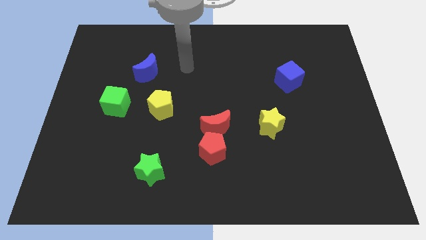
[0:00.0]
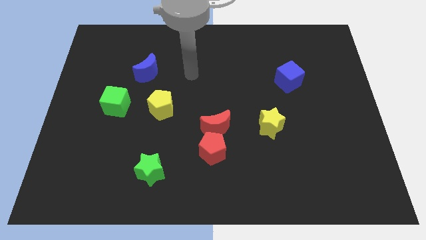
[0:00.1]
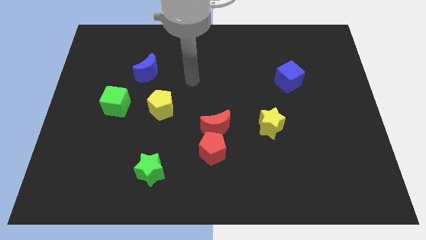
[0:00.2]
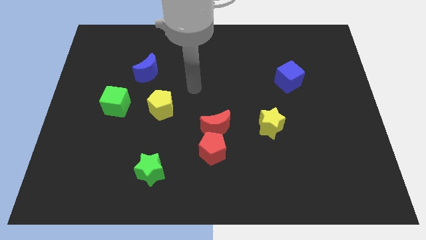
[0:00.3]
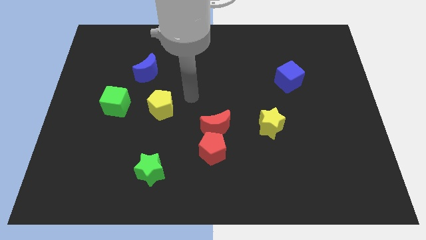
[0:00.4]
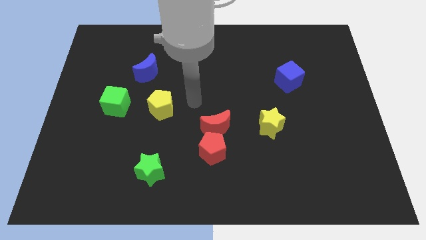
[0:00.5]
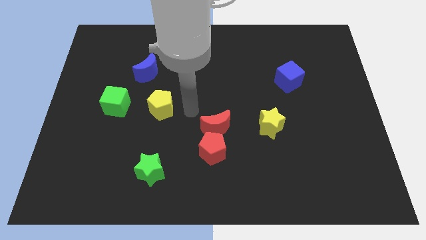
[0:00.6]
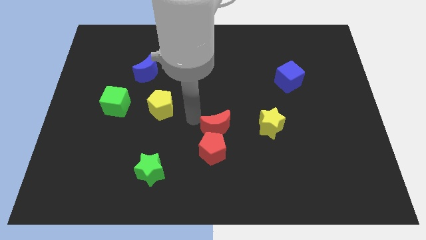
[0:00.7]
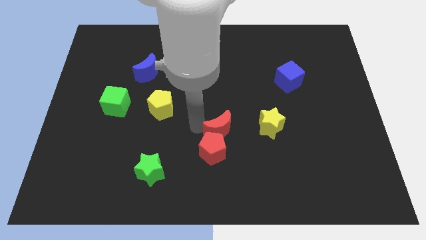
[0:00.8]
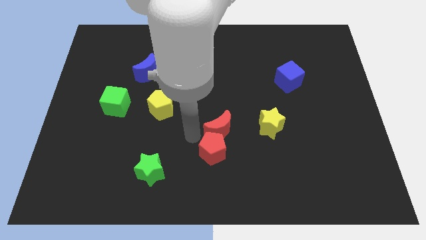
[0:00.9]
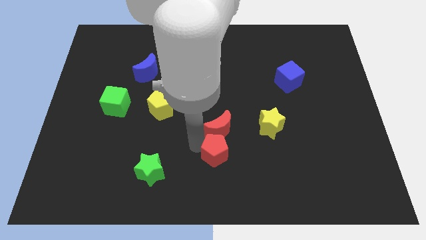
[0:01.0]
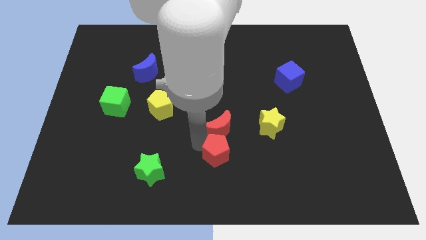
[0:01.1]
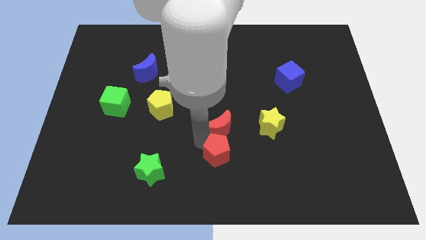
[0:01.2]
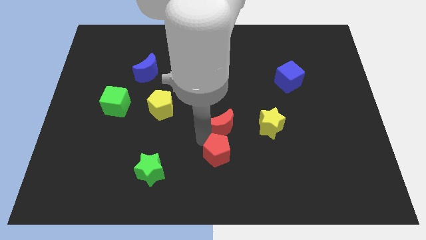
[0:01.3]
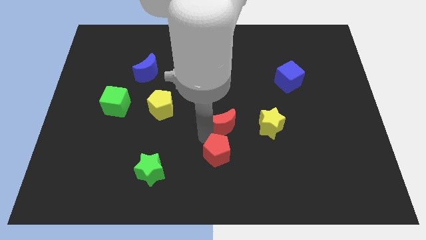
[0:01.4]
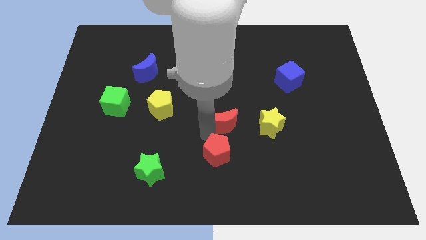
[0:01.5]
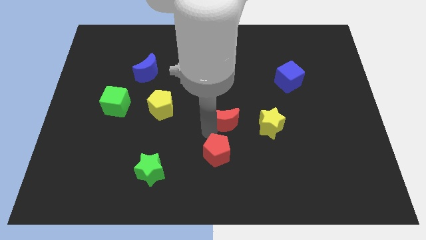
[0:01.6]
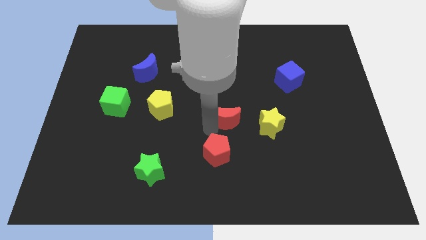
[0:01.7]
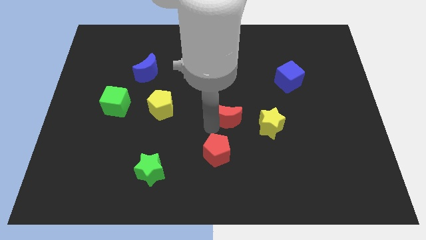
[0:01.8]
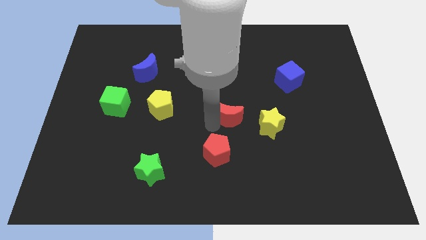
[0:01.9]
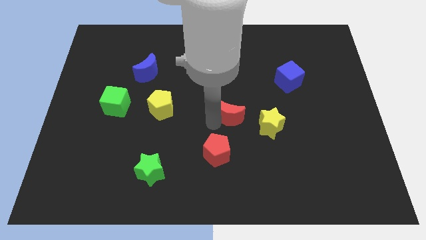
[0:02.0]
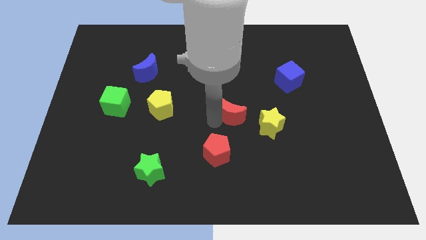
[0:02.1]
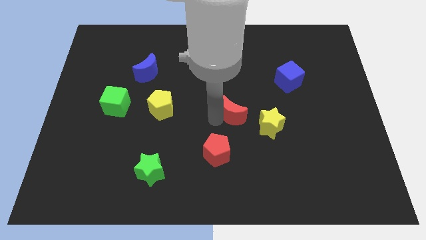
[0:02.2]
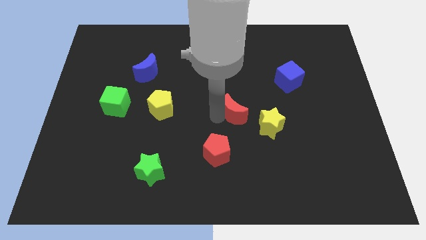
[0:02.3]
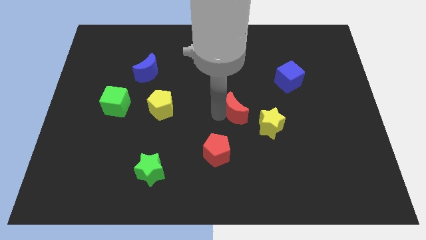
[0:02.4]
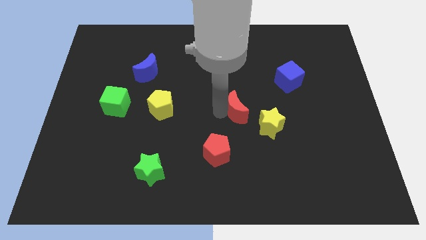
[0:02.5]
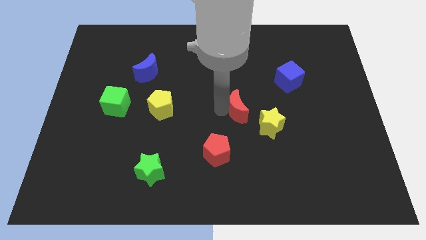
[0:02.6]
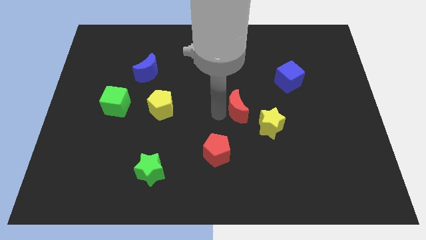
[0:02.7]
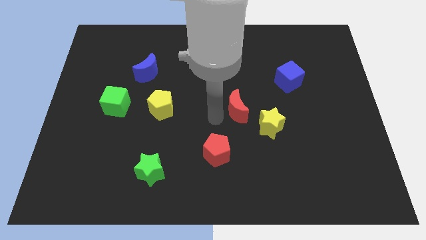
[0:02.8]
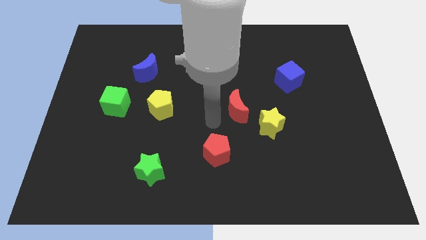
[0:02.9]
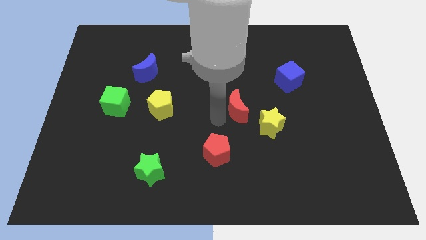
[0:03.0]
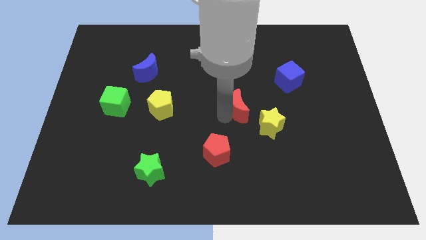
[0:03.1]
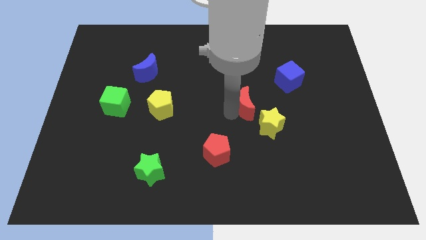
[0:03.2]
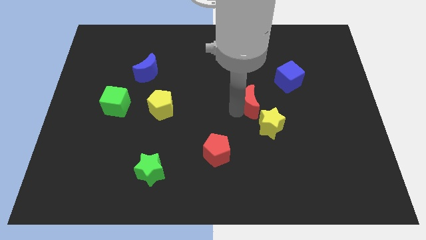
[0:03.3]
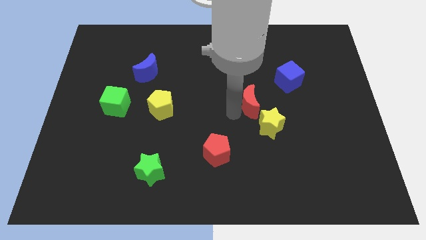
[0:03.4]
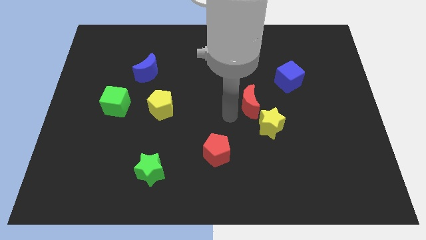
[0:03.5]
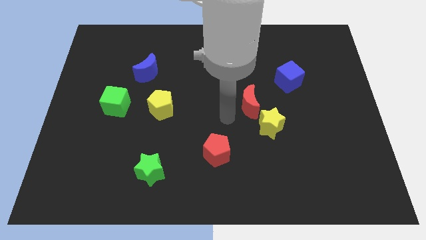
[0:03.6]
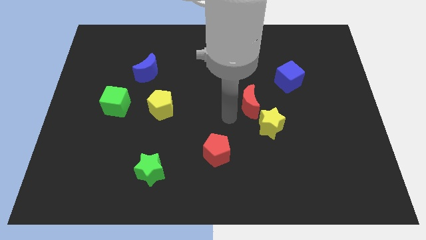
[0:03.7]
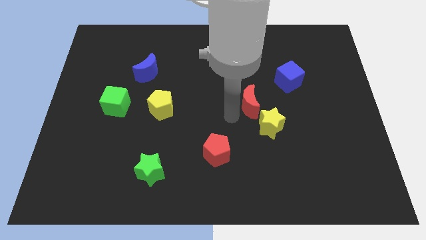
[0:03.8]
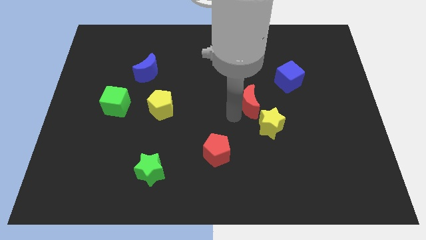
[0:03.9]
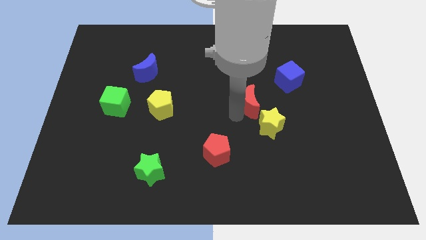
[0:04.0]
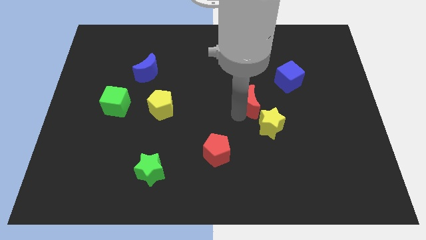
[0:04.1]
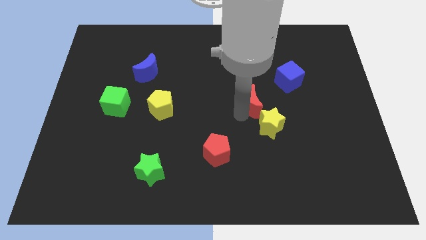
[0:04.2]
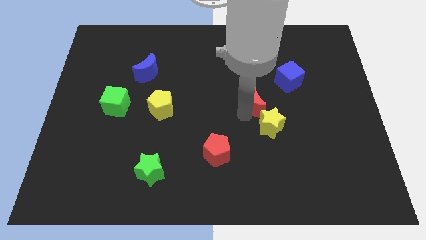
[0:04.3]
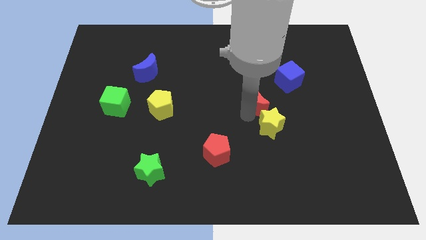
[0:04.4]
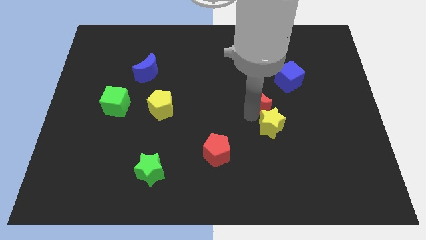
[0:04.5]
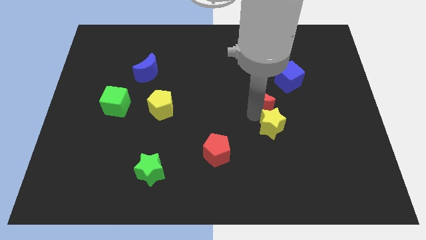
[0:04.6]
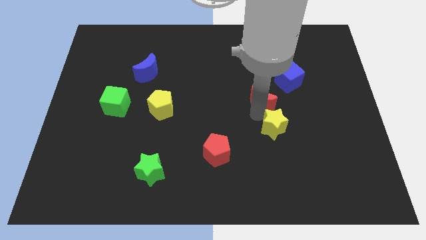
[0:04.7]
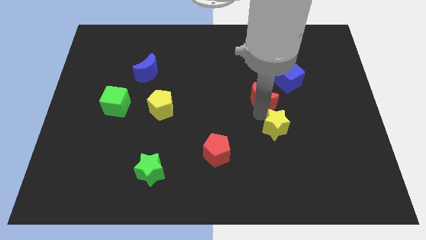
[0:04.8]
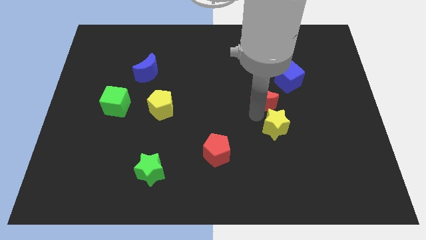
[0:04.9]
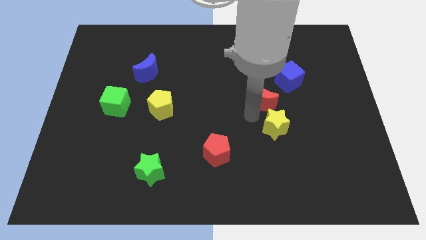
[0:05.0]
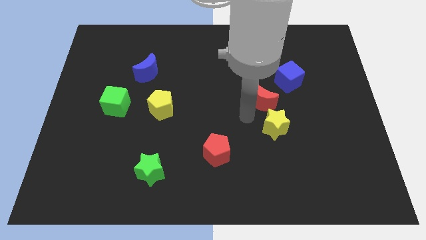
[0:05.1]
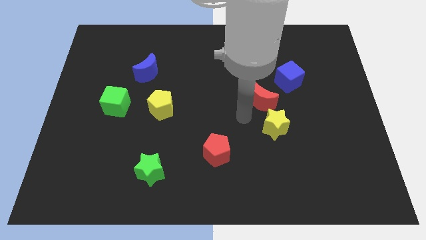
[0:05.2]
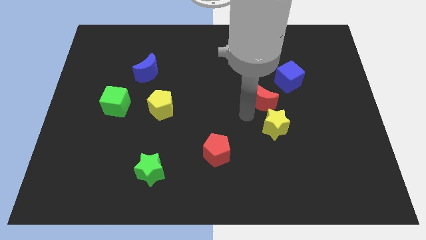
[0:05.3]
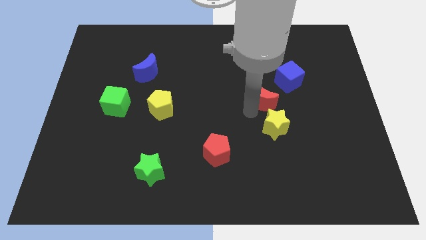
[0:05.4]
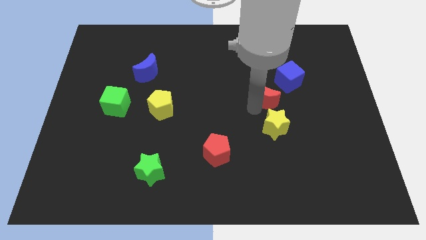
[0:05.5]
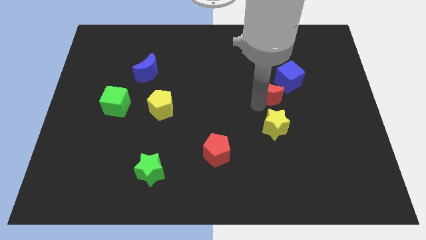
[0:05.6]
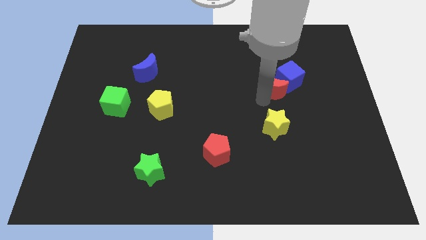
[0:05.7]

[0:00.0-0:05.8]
move the red moon to the blue cube

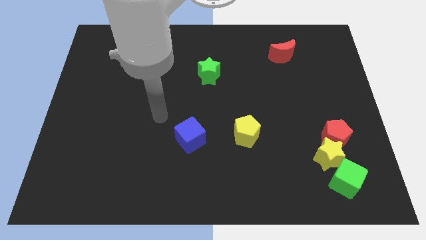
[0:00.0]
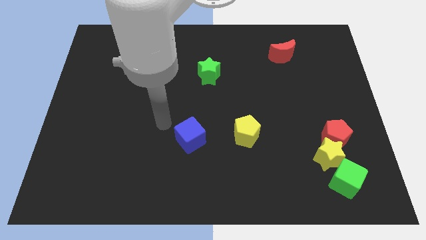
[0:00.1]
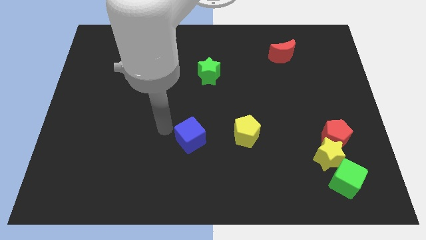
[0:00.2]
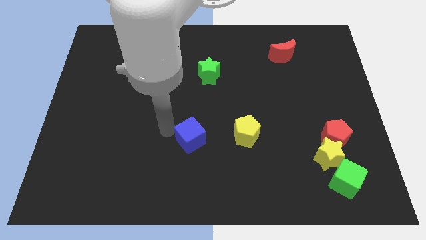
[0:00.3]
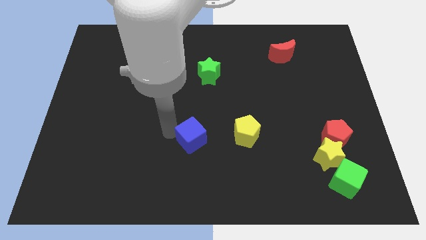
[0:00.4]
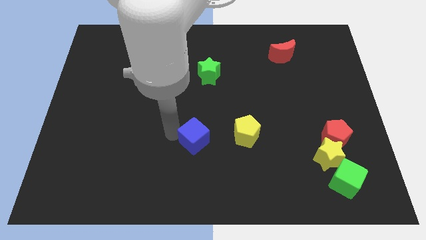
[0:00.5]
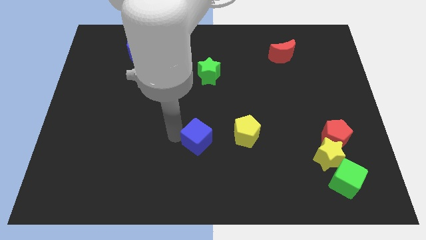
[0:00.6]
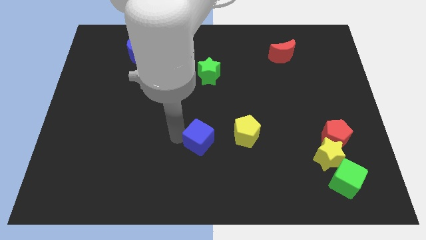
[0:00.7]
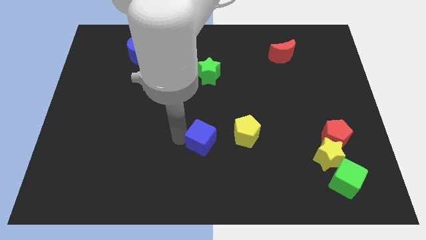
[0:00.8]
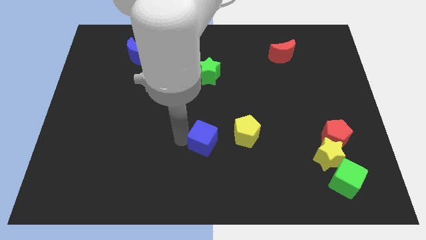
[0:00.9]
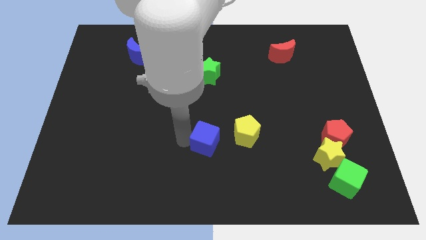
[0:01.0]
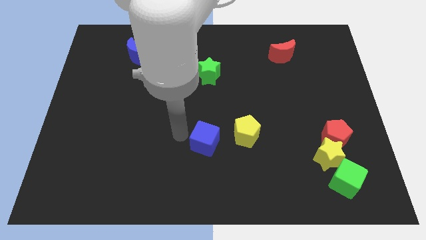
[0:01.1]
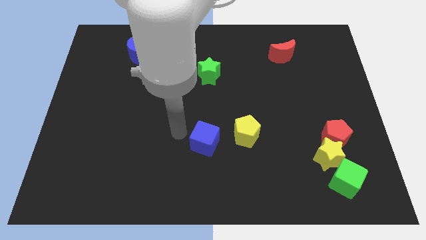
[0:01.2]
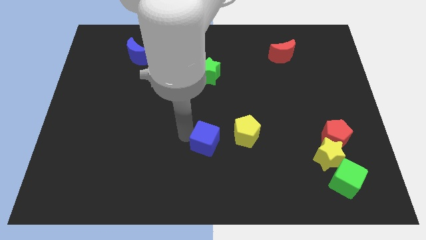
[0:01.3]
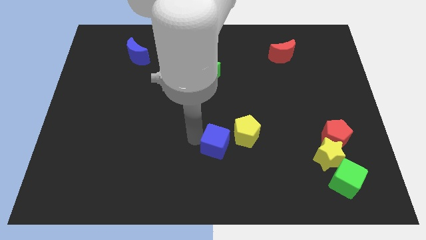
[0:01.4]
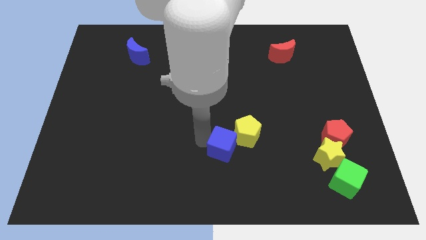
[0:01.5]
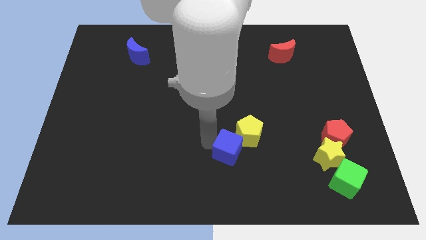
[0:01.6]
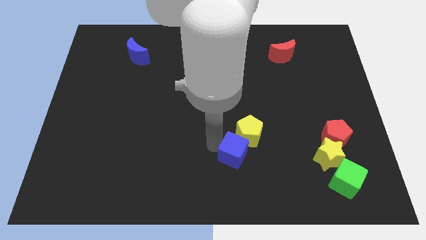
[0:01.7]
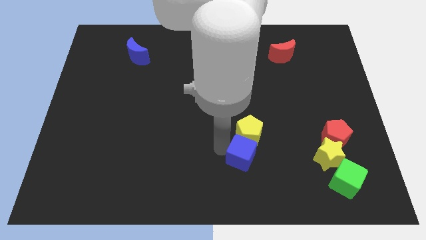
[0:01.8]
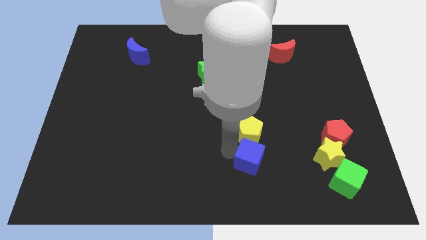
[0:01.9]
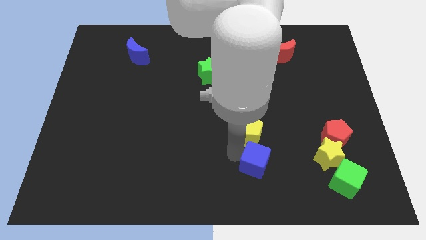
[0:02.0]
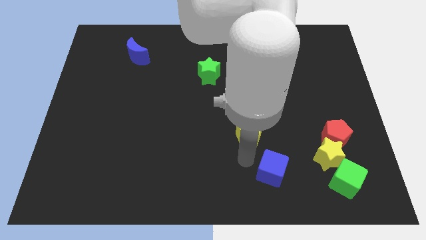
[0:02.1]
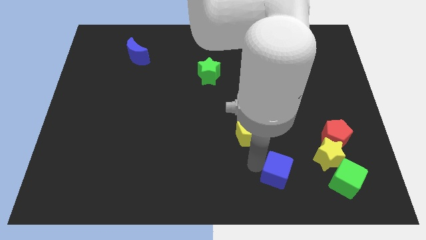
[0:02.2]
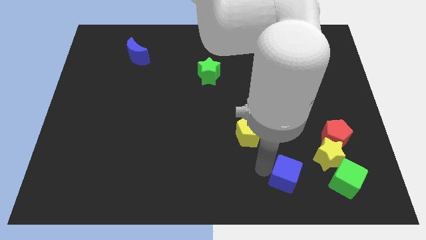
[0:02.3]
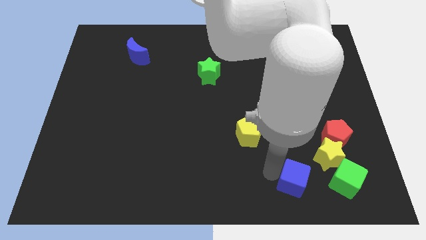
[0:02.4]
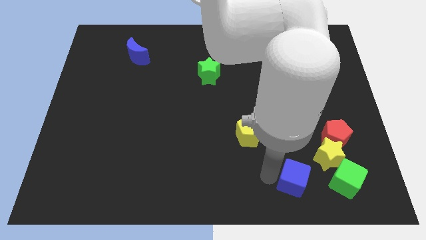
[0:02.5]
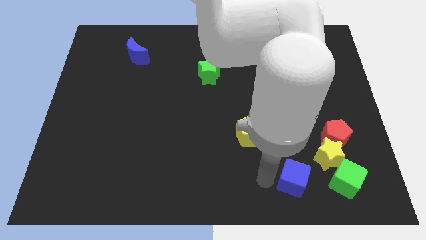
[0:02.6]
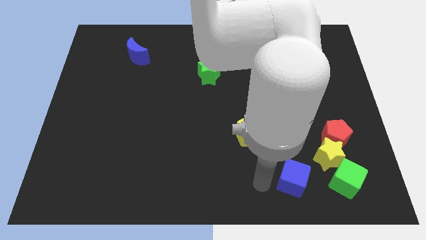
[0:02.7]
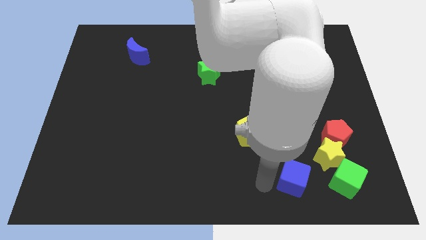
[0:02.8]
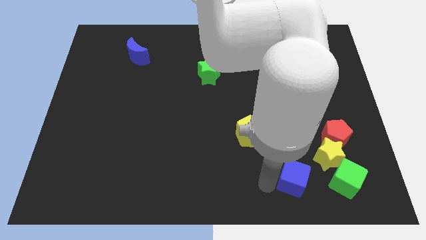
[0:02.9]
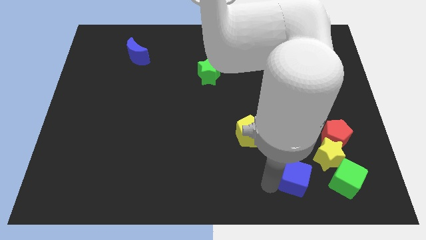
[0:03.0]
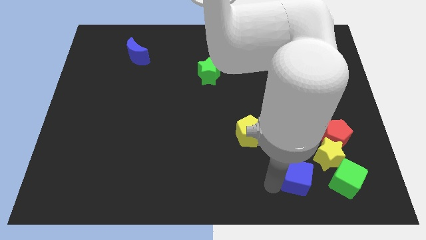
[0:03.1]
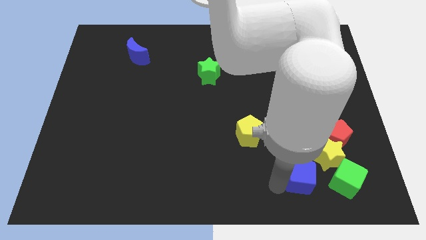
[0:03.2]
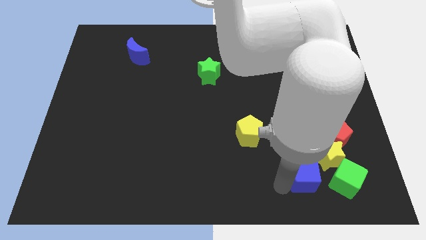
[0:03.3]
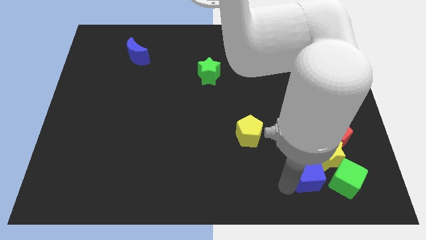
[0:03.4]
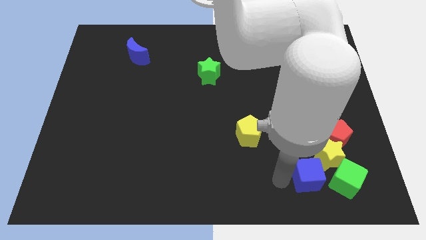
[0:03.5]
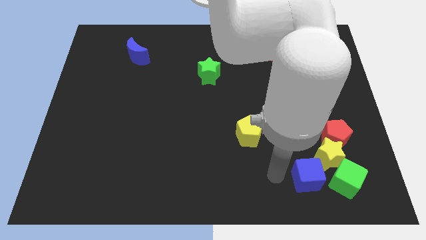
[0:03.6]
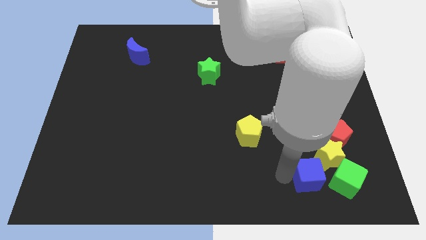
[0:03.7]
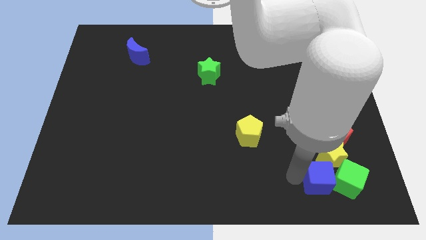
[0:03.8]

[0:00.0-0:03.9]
push the blue cube towards the green cube
